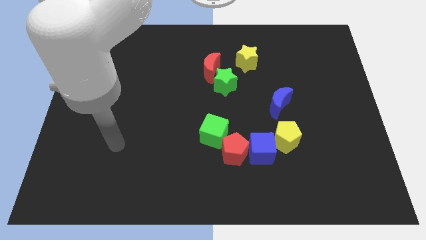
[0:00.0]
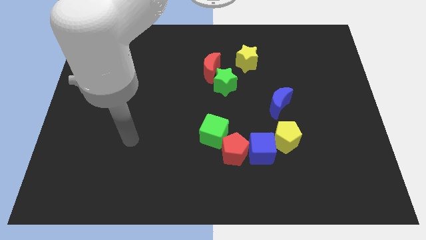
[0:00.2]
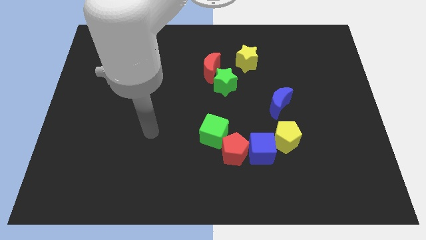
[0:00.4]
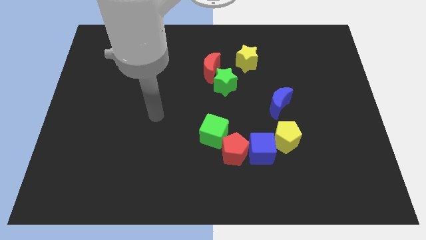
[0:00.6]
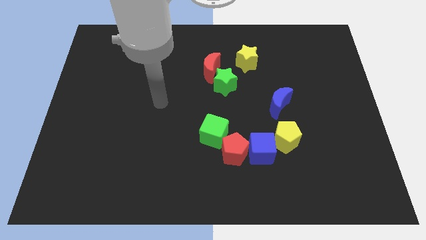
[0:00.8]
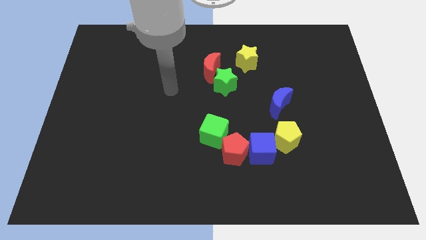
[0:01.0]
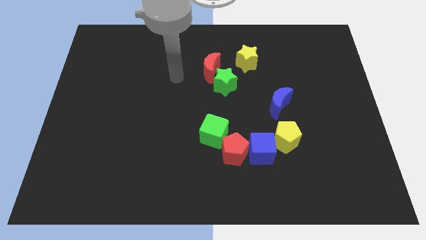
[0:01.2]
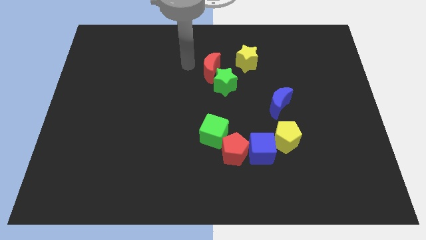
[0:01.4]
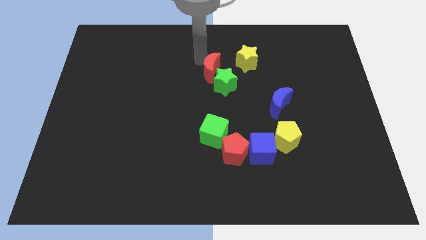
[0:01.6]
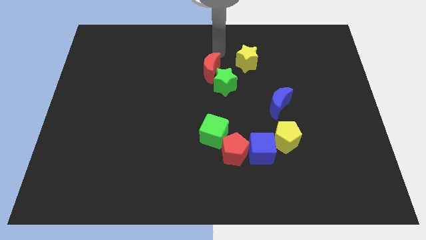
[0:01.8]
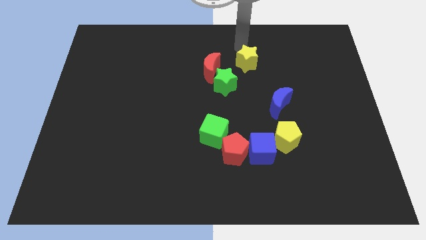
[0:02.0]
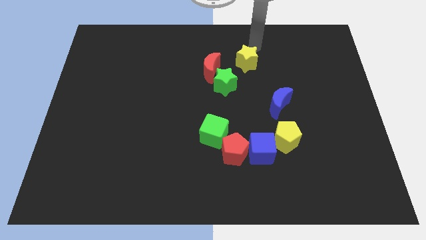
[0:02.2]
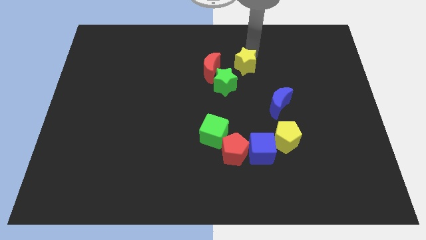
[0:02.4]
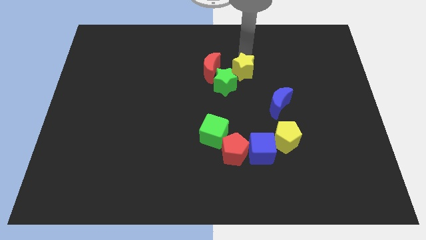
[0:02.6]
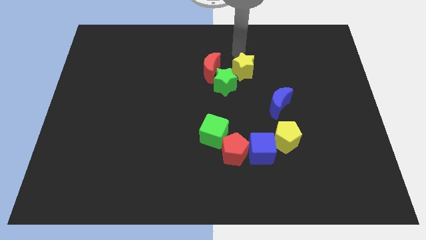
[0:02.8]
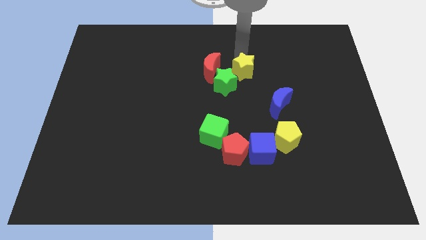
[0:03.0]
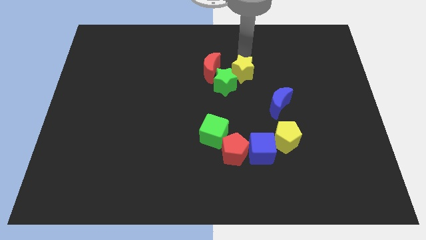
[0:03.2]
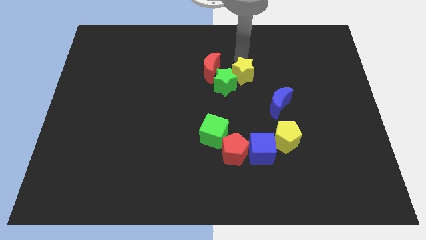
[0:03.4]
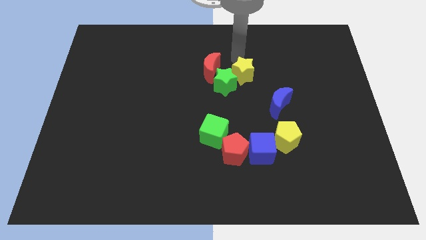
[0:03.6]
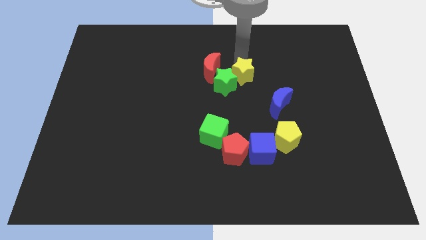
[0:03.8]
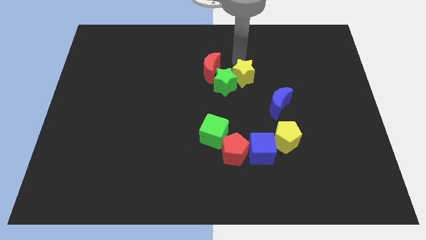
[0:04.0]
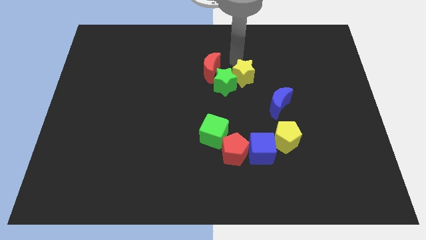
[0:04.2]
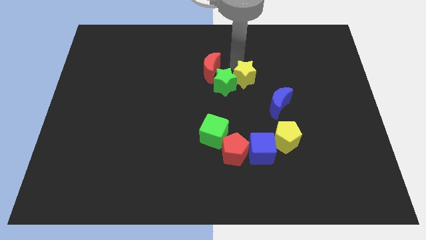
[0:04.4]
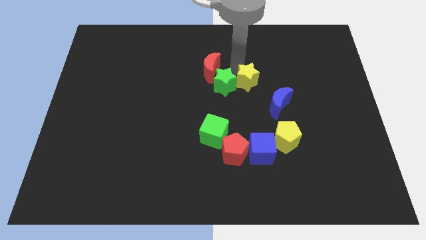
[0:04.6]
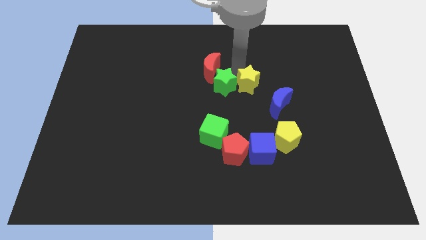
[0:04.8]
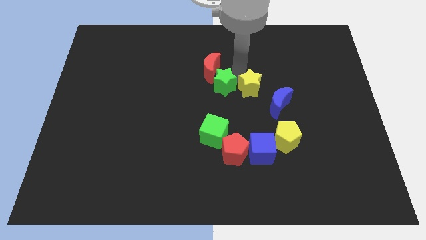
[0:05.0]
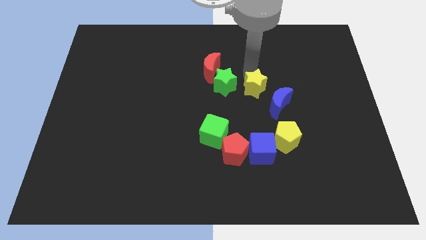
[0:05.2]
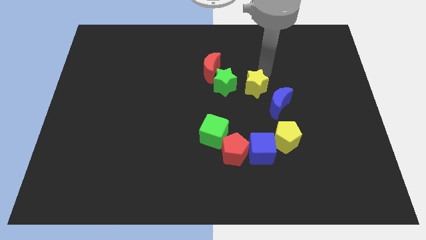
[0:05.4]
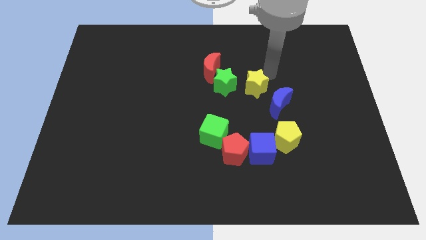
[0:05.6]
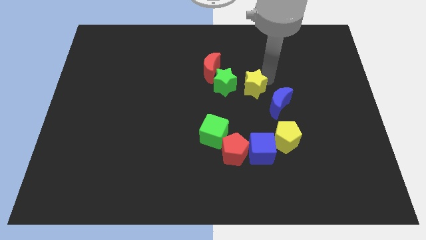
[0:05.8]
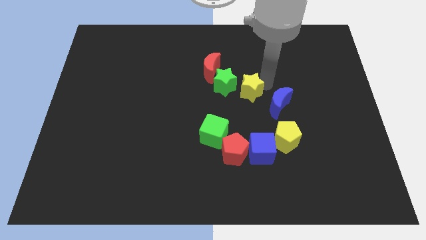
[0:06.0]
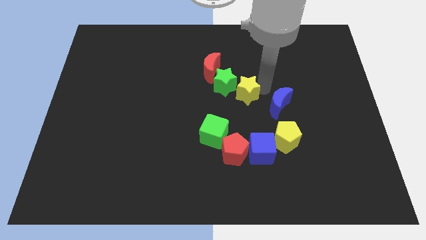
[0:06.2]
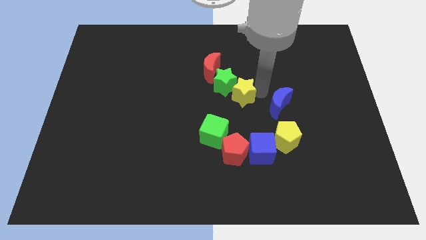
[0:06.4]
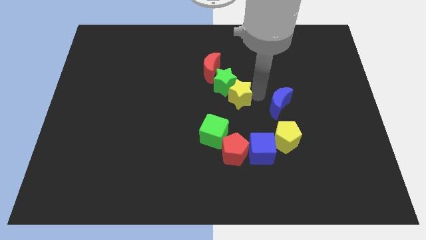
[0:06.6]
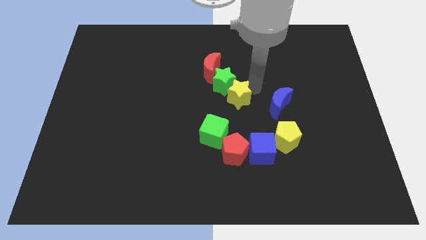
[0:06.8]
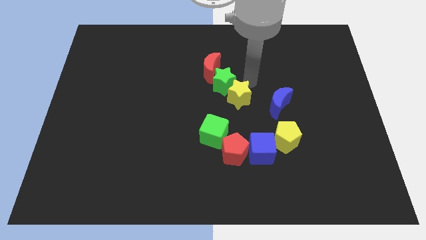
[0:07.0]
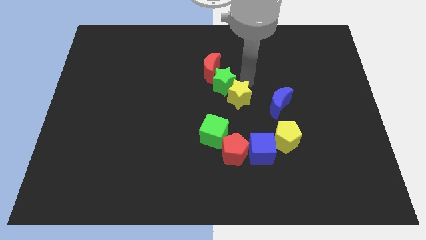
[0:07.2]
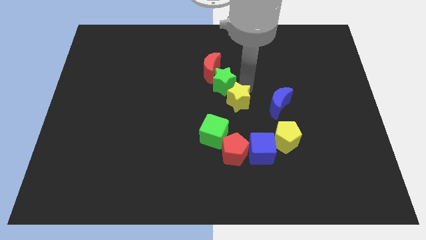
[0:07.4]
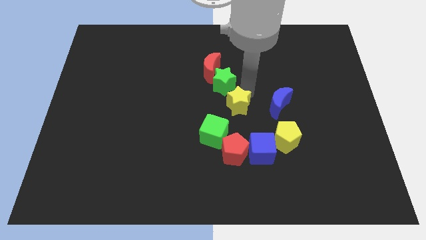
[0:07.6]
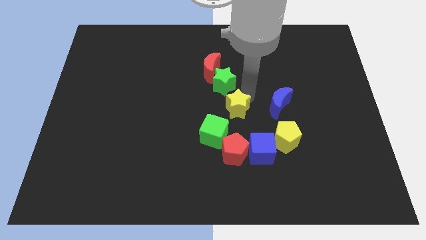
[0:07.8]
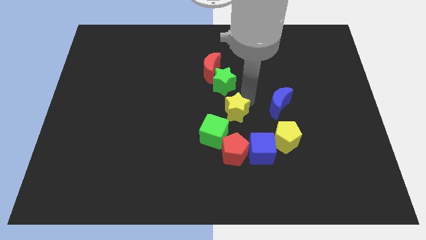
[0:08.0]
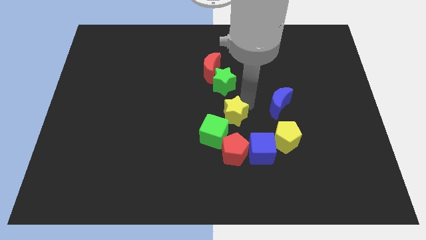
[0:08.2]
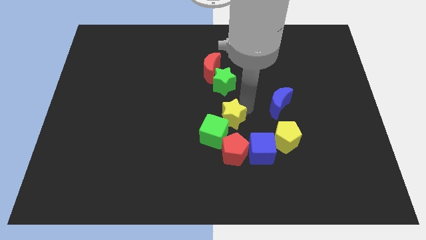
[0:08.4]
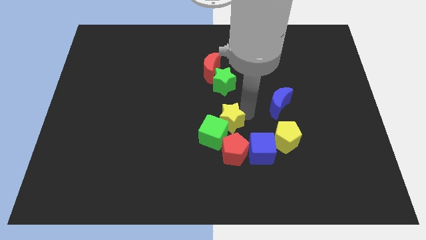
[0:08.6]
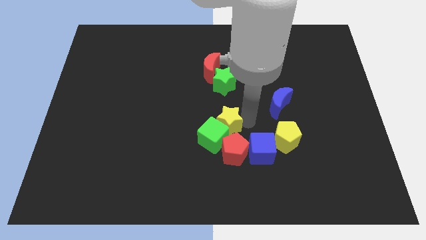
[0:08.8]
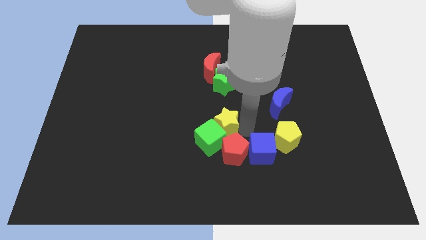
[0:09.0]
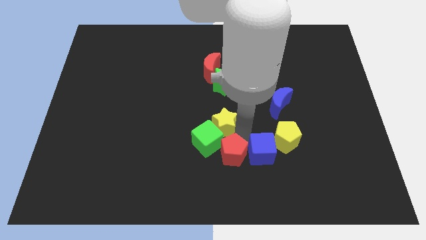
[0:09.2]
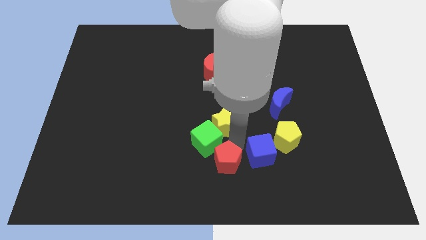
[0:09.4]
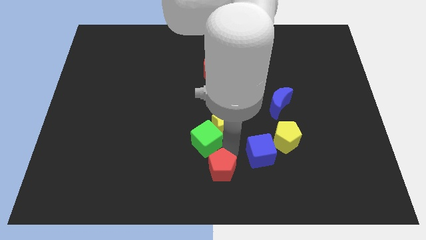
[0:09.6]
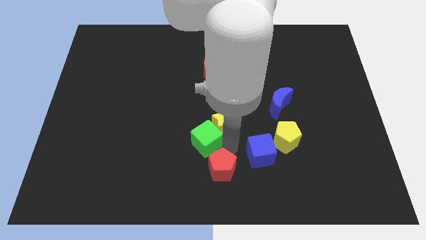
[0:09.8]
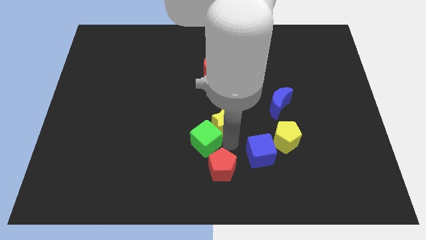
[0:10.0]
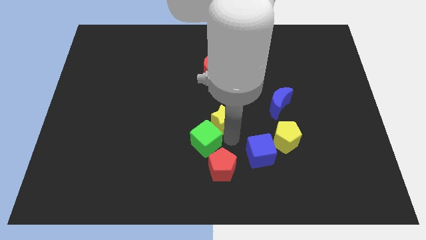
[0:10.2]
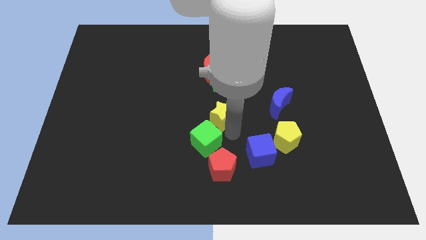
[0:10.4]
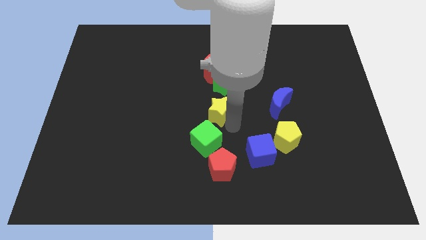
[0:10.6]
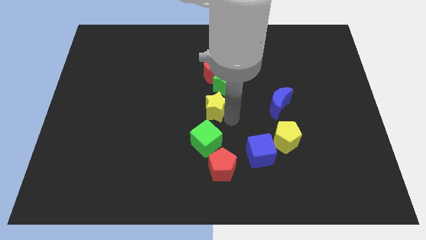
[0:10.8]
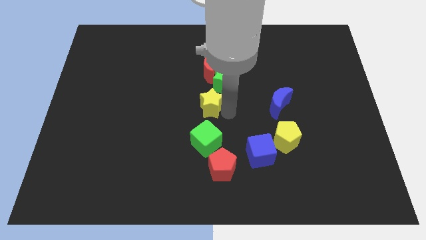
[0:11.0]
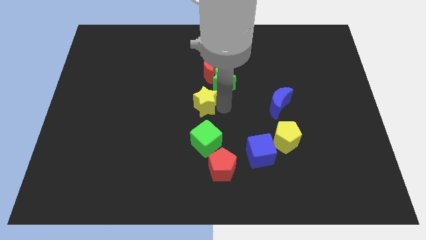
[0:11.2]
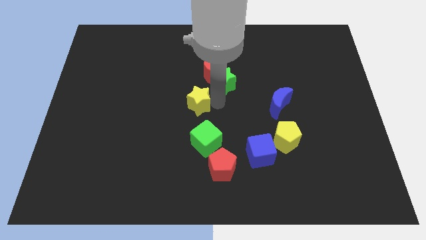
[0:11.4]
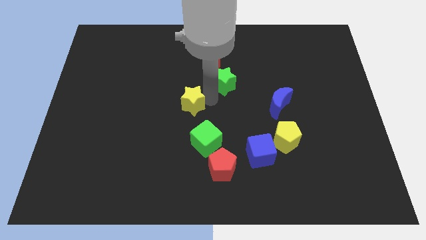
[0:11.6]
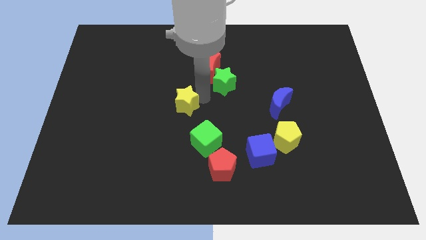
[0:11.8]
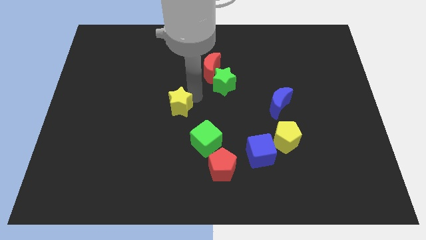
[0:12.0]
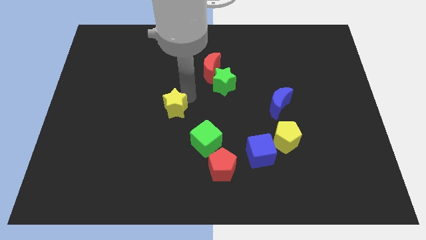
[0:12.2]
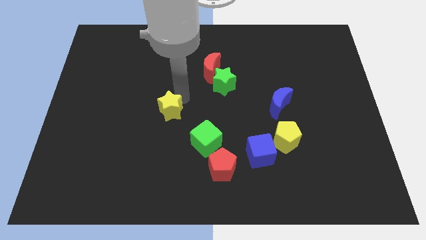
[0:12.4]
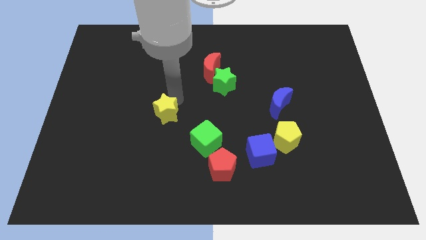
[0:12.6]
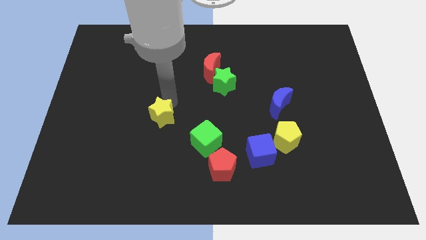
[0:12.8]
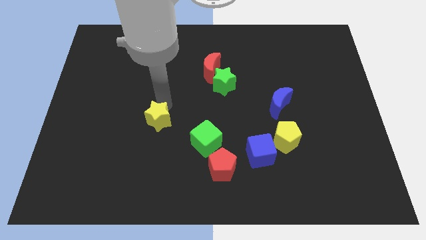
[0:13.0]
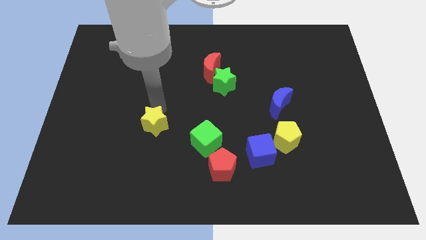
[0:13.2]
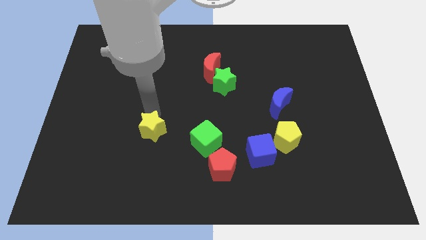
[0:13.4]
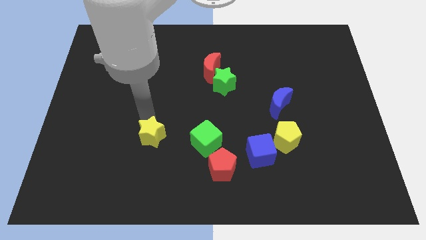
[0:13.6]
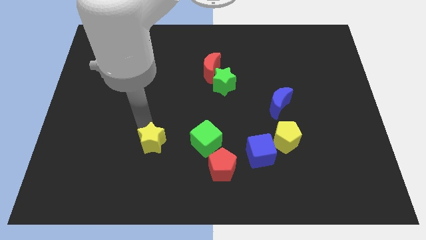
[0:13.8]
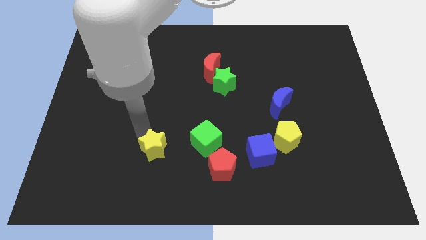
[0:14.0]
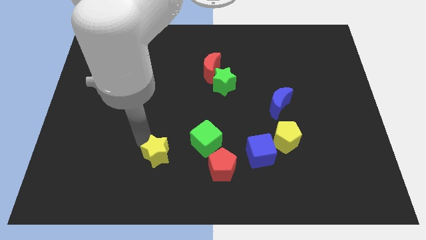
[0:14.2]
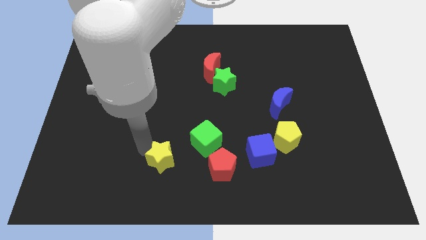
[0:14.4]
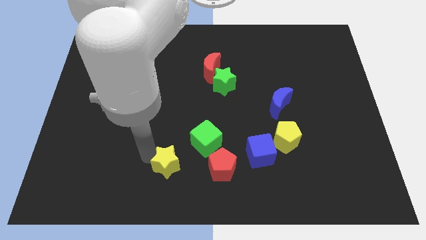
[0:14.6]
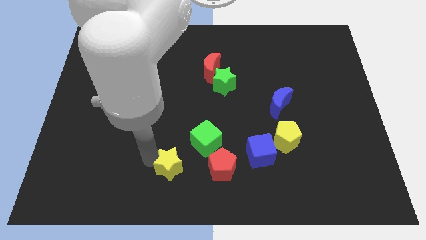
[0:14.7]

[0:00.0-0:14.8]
move the yellow star to the bottom side
